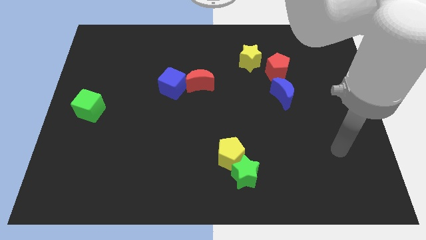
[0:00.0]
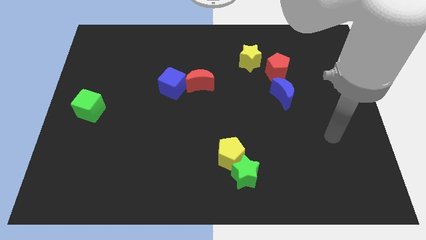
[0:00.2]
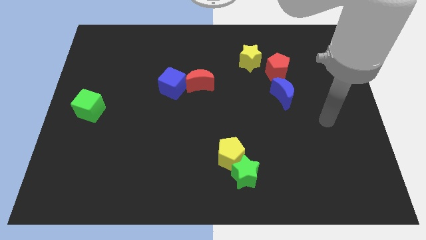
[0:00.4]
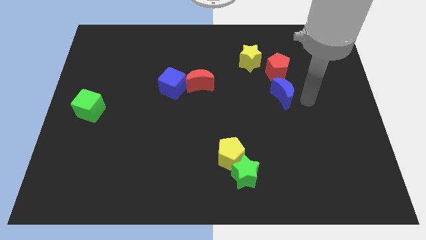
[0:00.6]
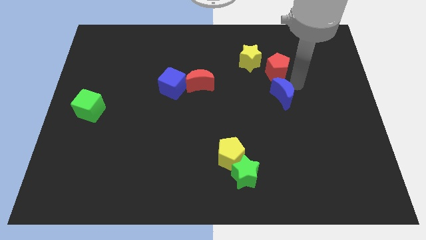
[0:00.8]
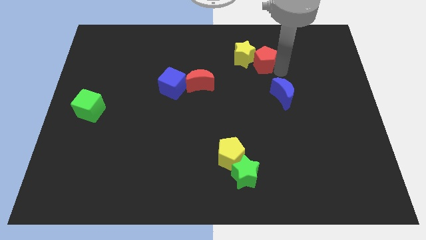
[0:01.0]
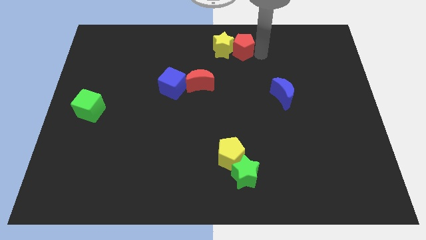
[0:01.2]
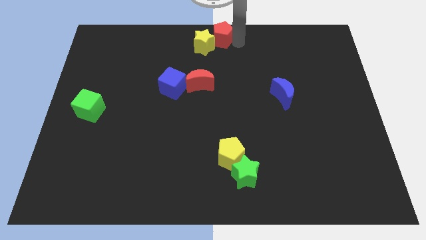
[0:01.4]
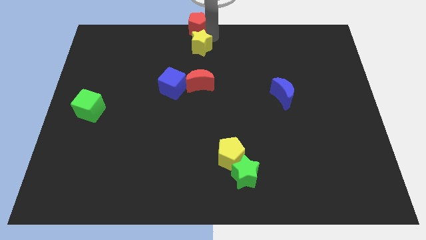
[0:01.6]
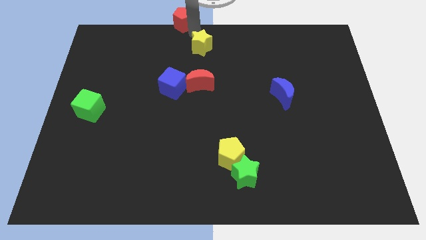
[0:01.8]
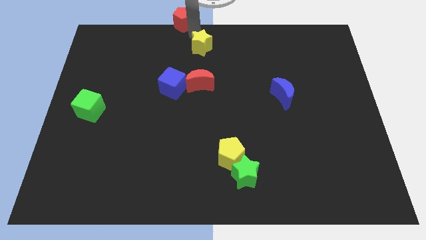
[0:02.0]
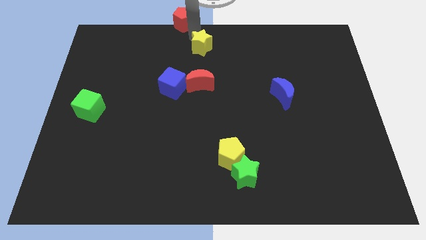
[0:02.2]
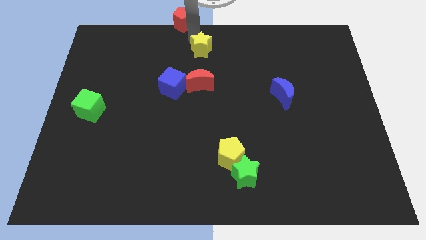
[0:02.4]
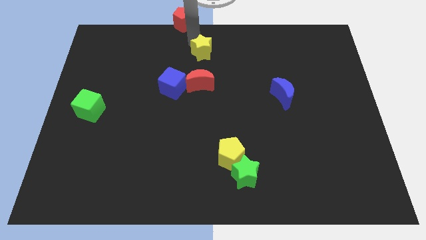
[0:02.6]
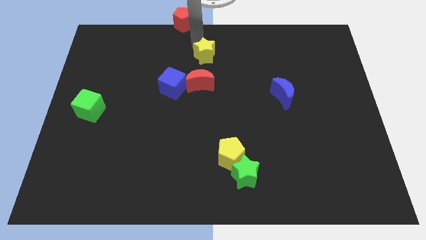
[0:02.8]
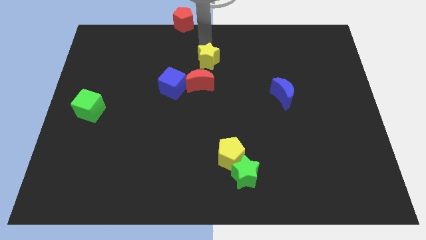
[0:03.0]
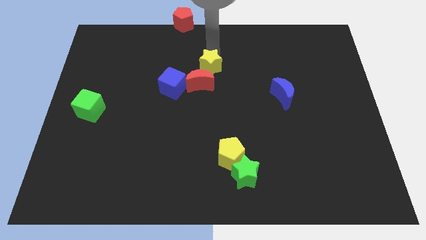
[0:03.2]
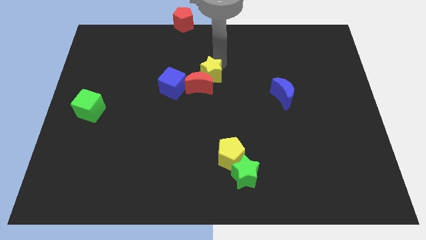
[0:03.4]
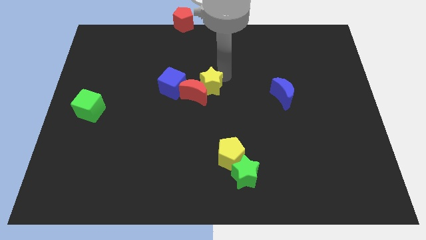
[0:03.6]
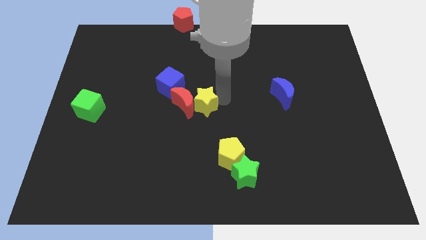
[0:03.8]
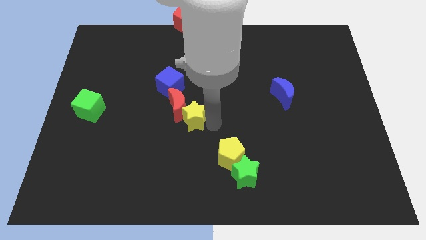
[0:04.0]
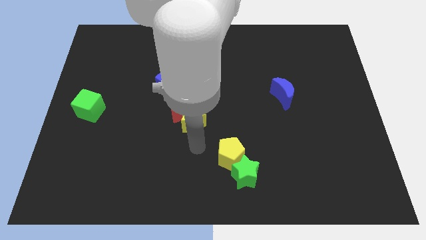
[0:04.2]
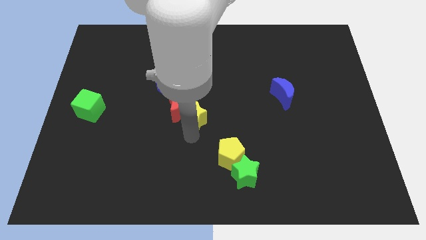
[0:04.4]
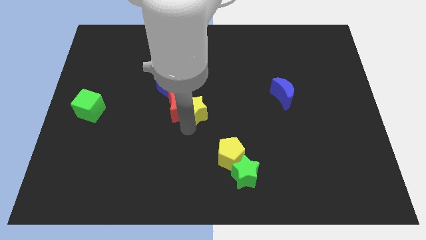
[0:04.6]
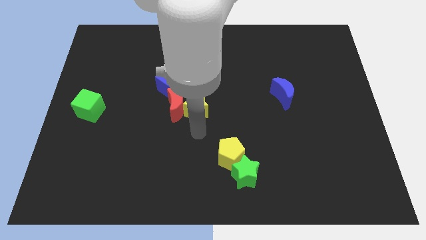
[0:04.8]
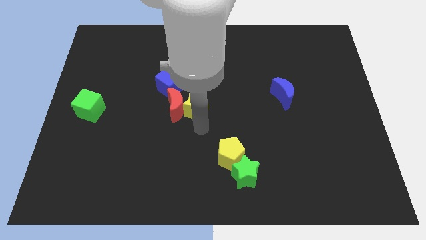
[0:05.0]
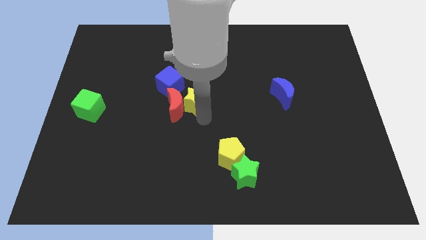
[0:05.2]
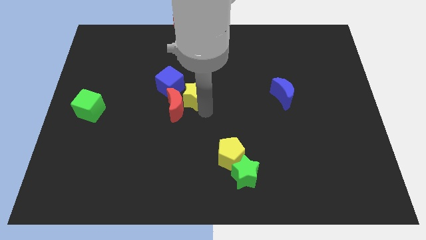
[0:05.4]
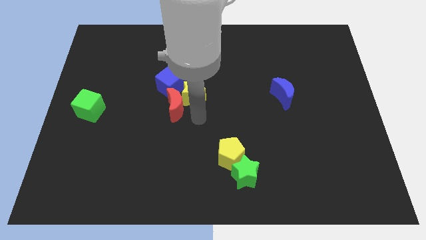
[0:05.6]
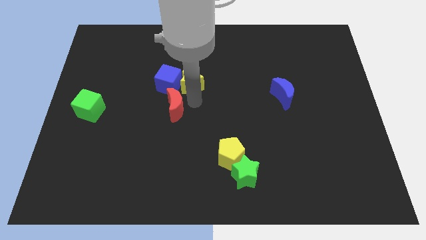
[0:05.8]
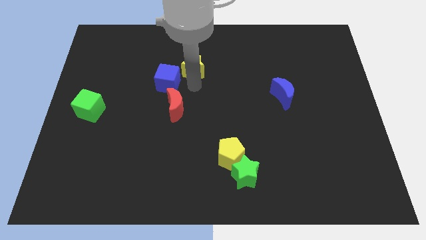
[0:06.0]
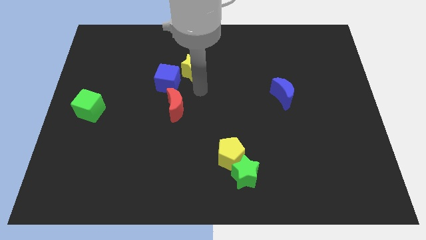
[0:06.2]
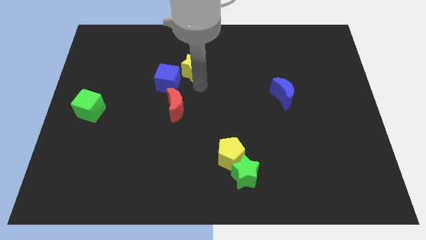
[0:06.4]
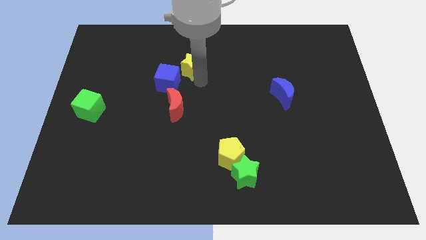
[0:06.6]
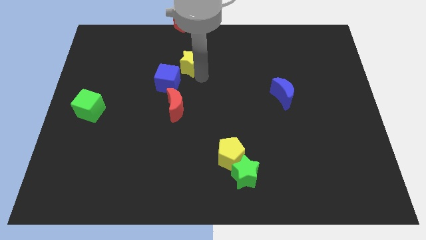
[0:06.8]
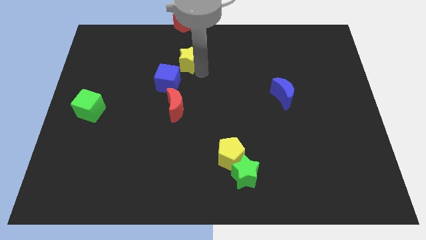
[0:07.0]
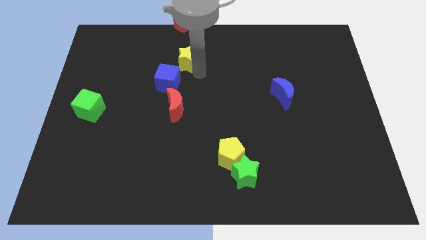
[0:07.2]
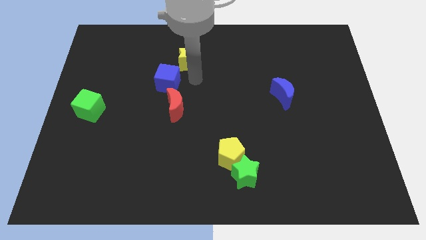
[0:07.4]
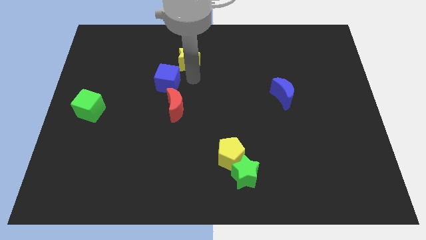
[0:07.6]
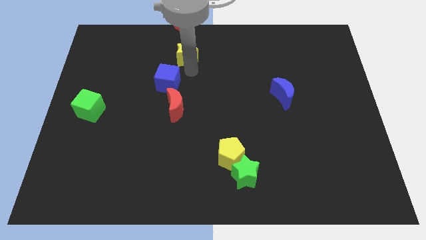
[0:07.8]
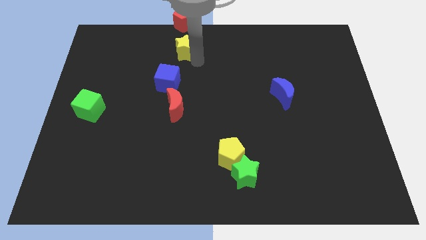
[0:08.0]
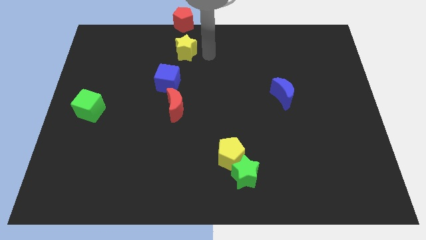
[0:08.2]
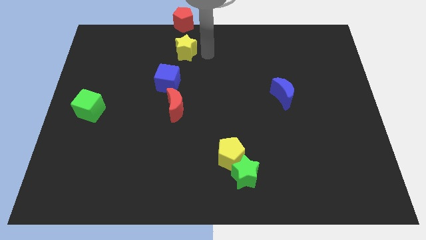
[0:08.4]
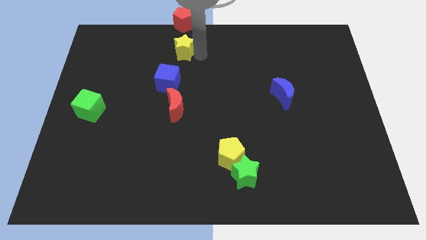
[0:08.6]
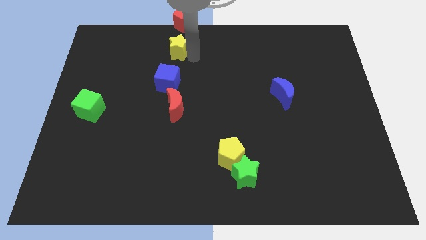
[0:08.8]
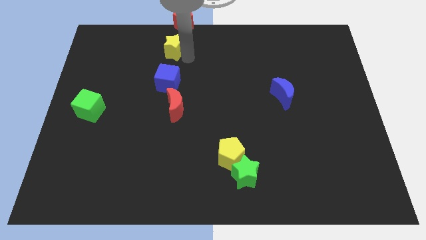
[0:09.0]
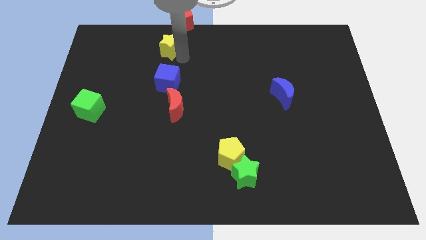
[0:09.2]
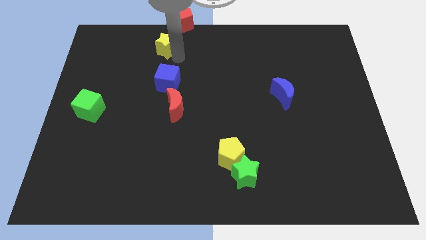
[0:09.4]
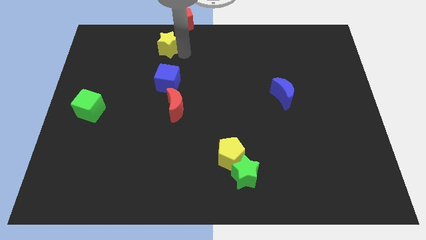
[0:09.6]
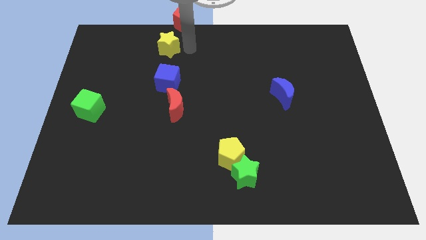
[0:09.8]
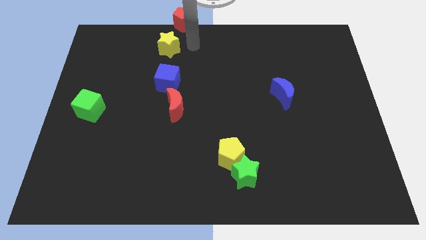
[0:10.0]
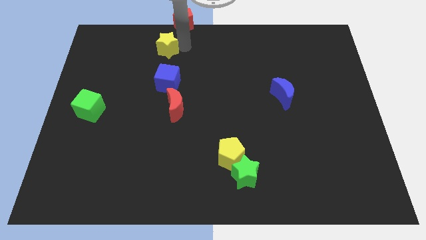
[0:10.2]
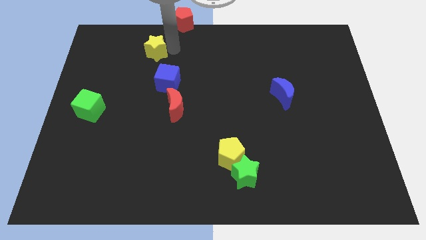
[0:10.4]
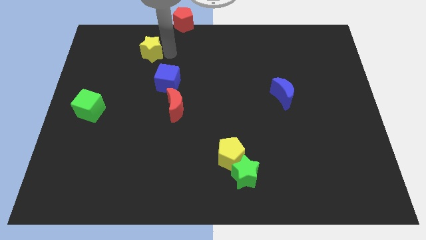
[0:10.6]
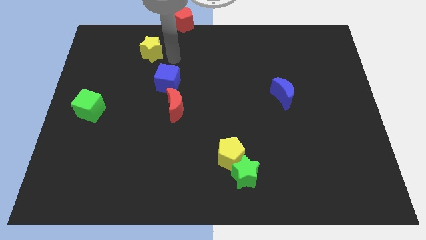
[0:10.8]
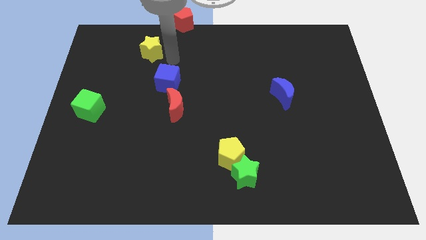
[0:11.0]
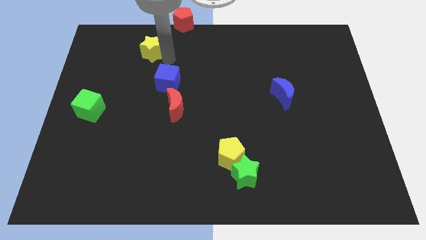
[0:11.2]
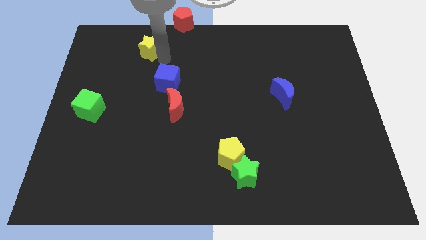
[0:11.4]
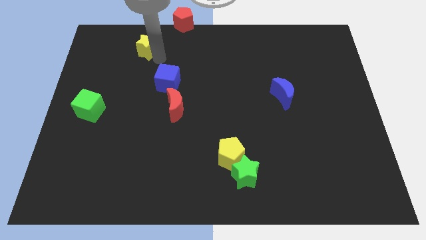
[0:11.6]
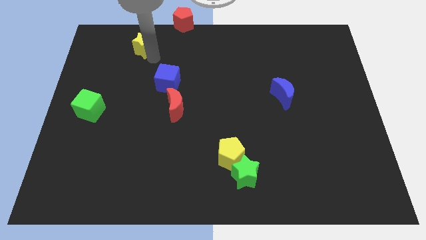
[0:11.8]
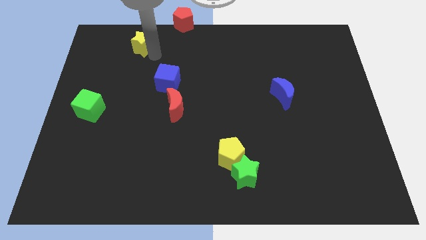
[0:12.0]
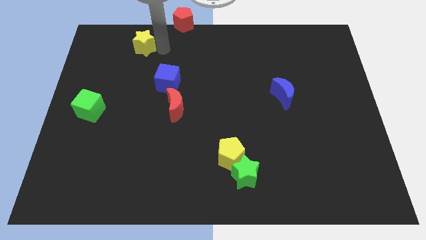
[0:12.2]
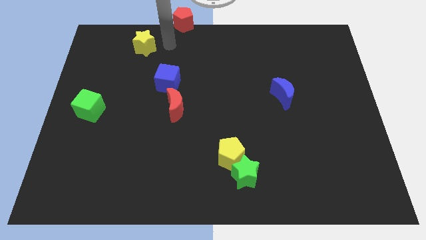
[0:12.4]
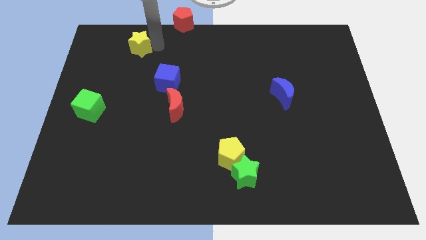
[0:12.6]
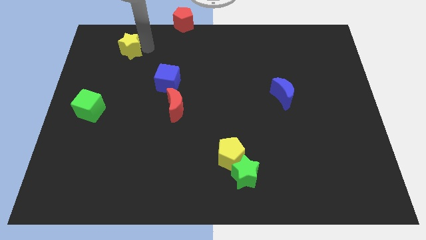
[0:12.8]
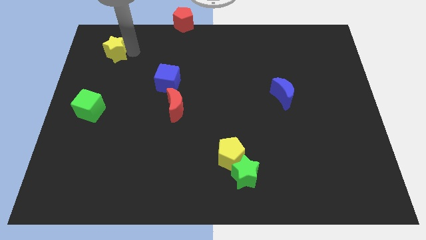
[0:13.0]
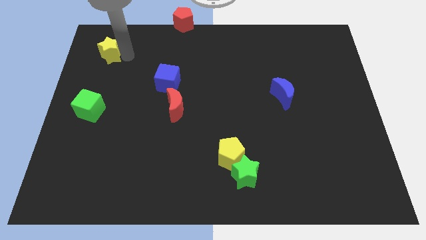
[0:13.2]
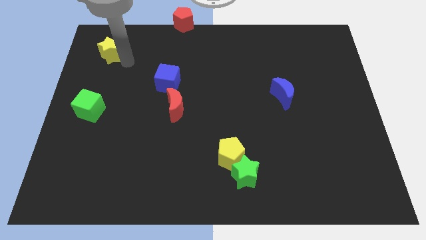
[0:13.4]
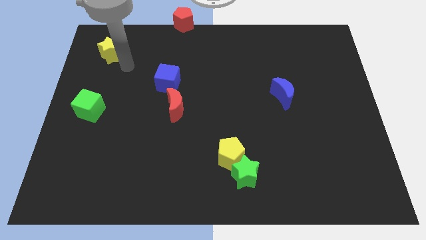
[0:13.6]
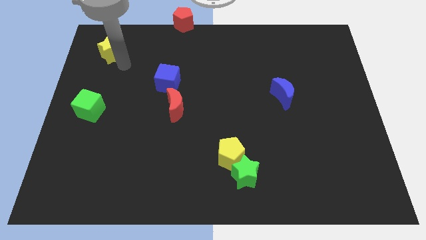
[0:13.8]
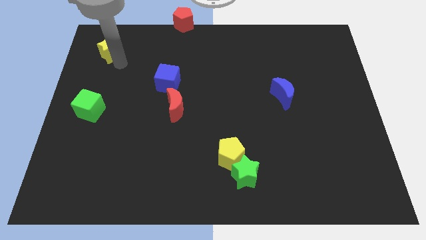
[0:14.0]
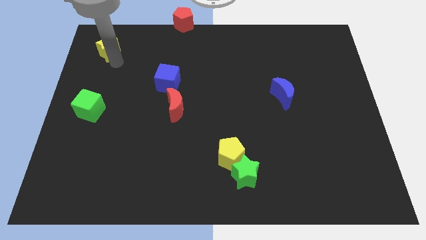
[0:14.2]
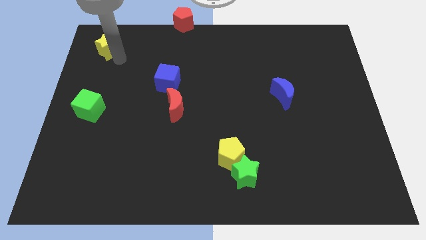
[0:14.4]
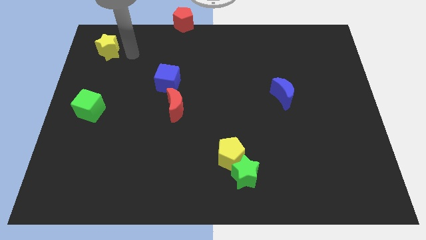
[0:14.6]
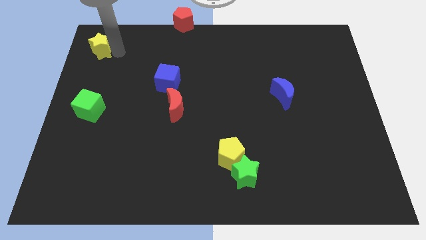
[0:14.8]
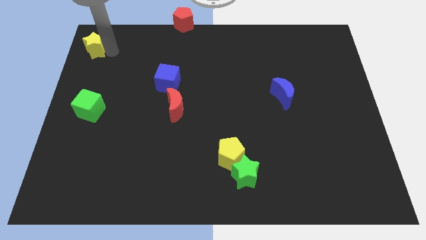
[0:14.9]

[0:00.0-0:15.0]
slide the yellow star to the upper left corner

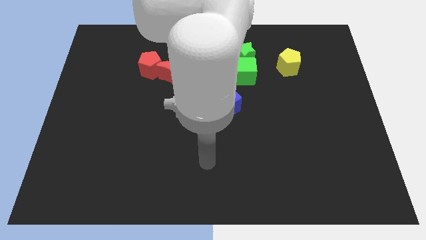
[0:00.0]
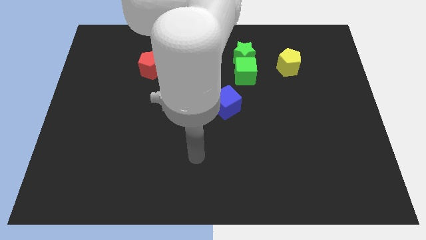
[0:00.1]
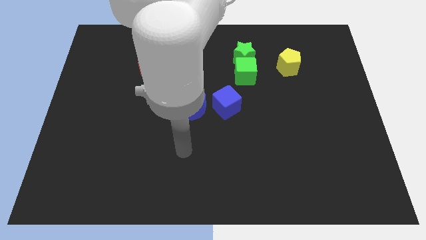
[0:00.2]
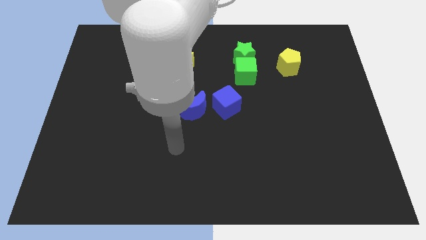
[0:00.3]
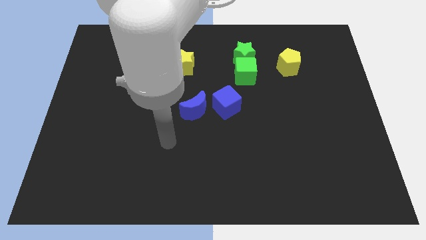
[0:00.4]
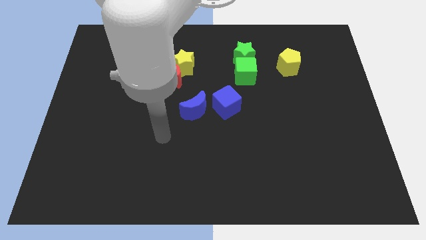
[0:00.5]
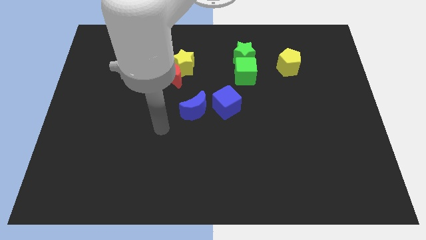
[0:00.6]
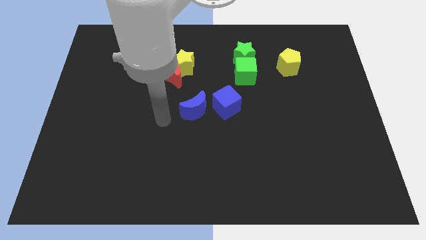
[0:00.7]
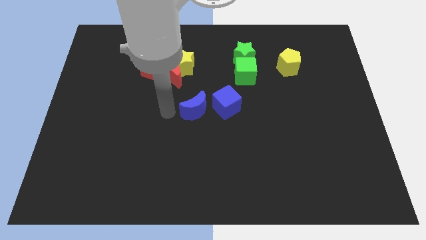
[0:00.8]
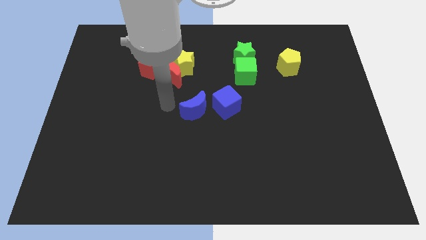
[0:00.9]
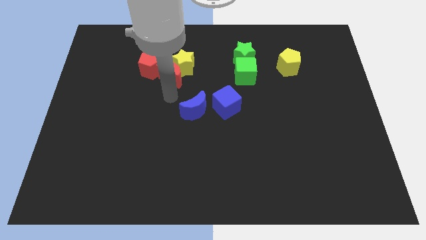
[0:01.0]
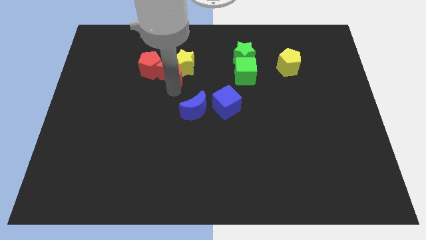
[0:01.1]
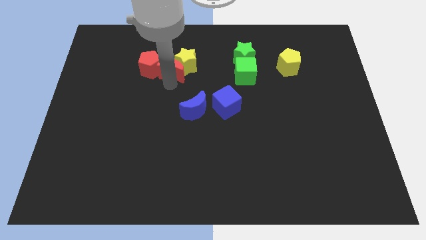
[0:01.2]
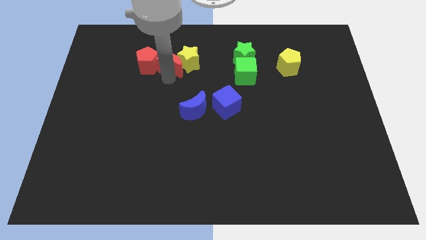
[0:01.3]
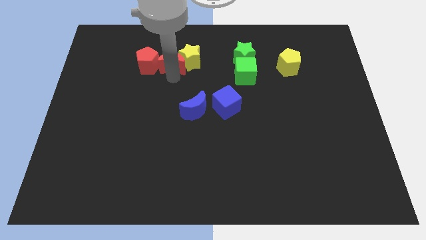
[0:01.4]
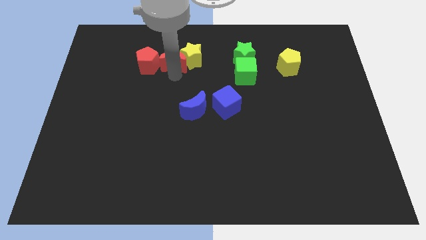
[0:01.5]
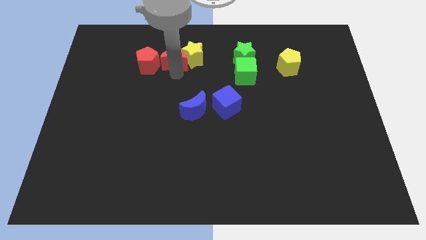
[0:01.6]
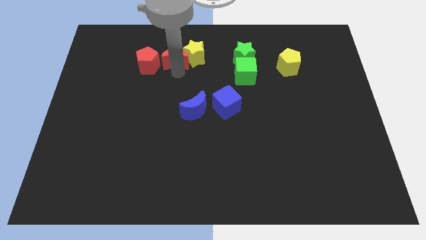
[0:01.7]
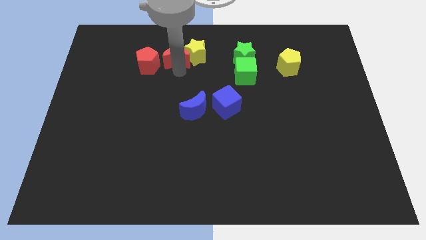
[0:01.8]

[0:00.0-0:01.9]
slide the yellow star to the top side
